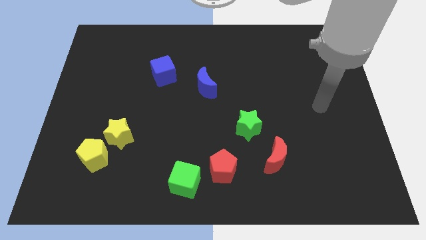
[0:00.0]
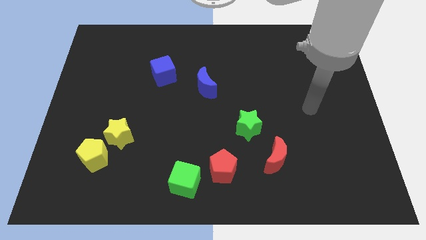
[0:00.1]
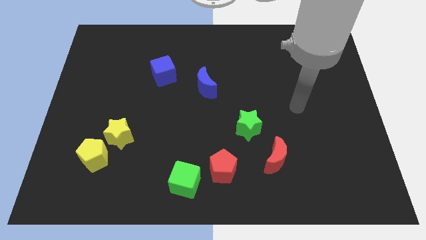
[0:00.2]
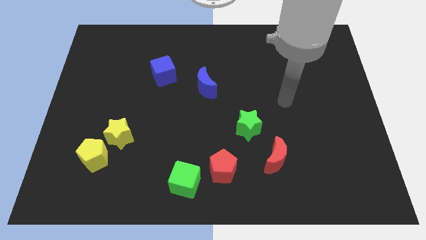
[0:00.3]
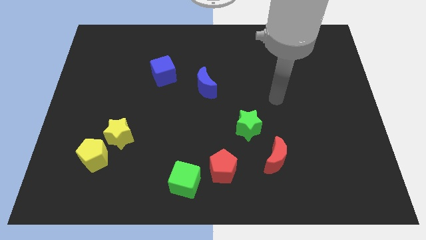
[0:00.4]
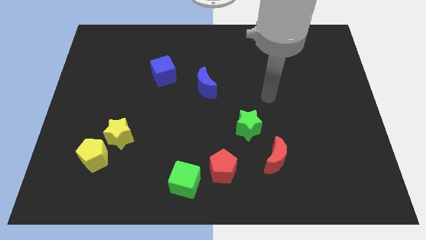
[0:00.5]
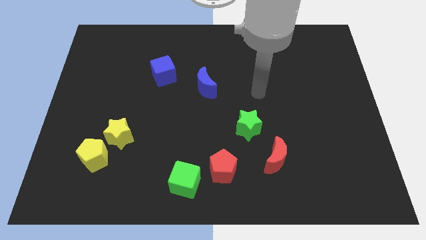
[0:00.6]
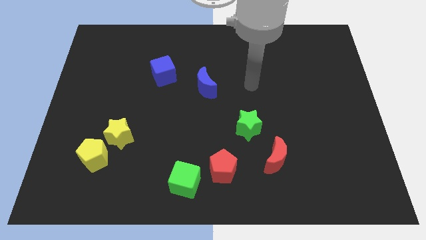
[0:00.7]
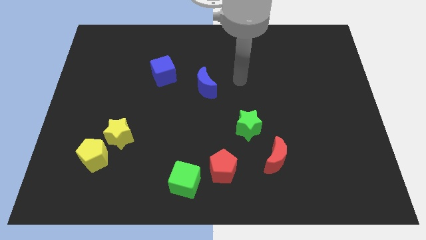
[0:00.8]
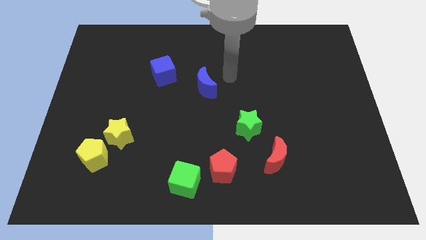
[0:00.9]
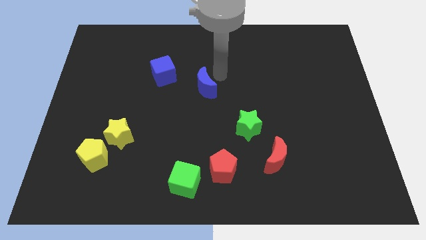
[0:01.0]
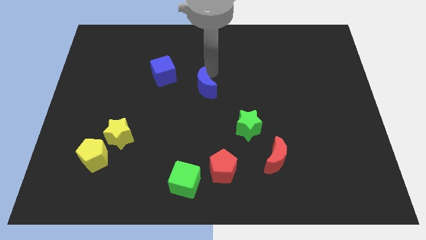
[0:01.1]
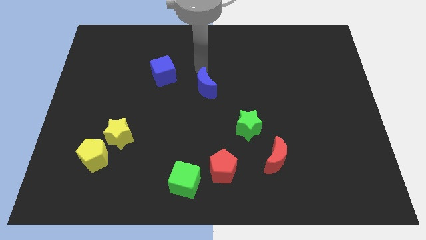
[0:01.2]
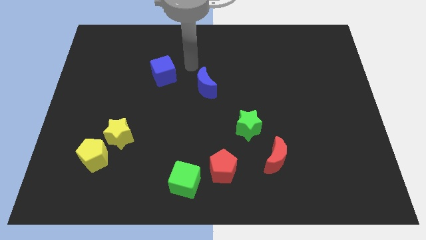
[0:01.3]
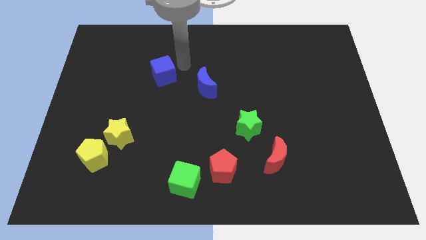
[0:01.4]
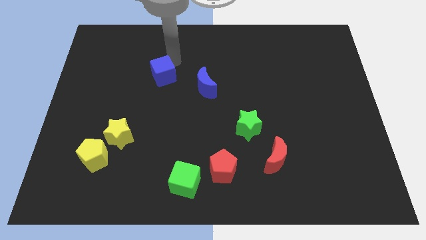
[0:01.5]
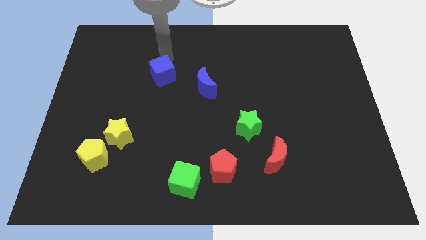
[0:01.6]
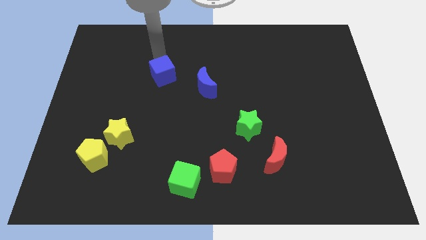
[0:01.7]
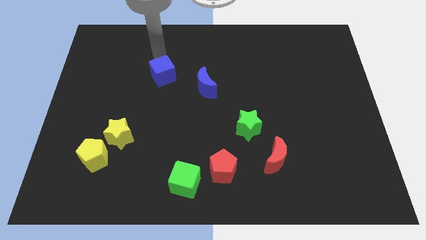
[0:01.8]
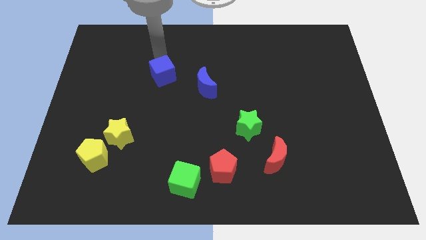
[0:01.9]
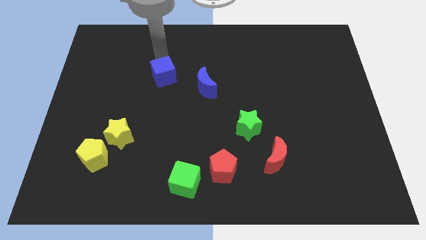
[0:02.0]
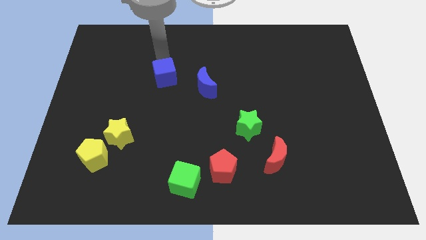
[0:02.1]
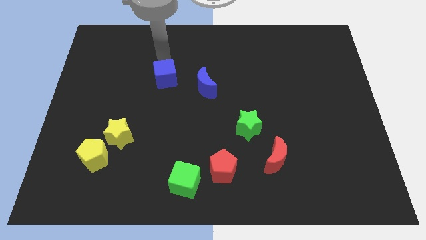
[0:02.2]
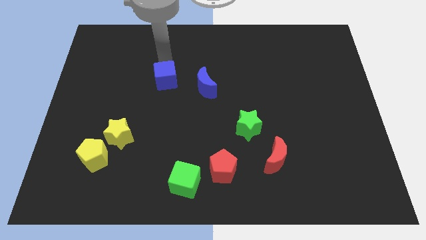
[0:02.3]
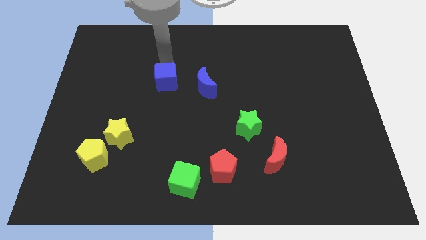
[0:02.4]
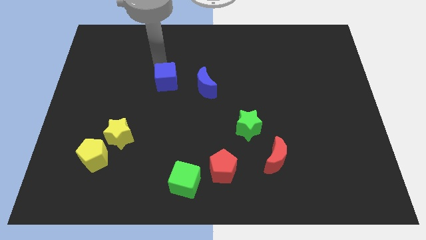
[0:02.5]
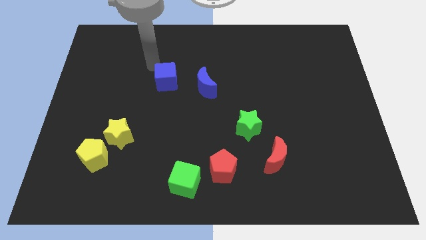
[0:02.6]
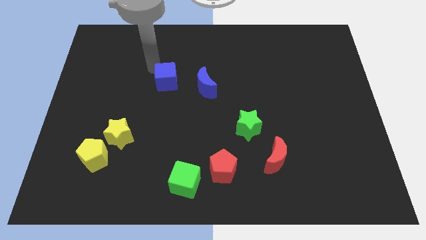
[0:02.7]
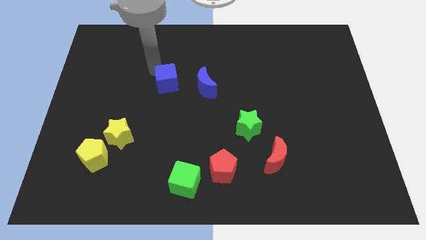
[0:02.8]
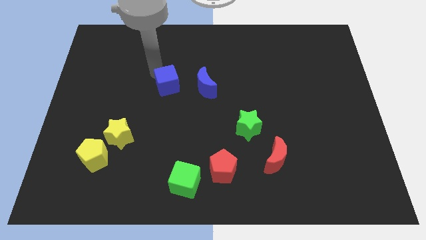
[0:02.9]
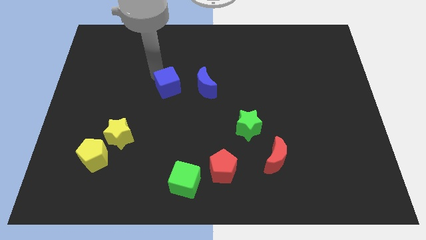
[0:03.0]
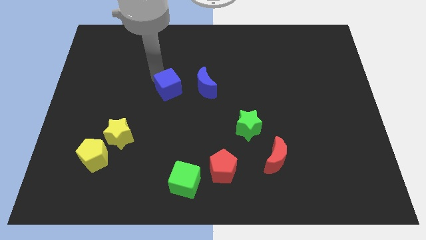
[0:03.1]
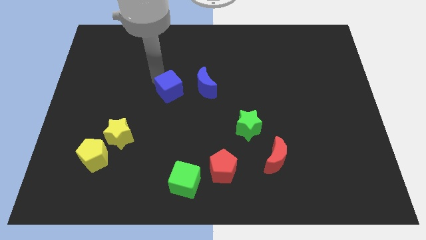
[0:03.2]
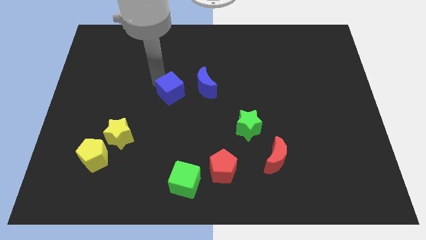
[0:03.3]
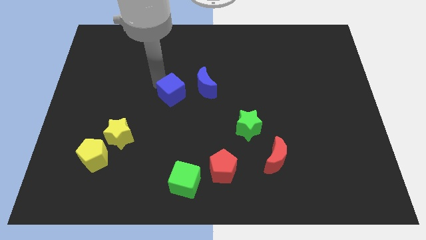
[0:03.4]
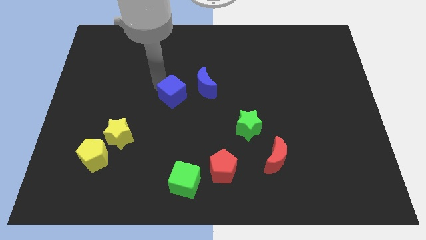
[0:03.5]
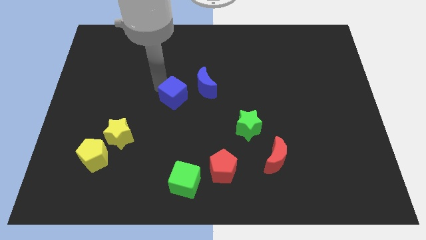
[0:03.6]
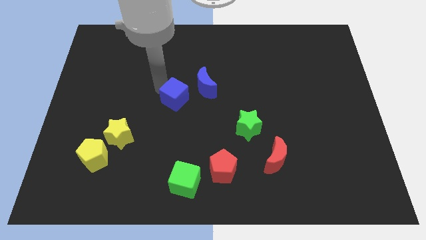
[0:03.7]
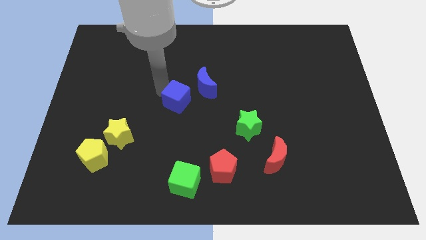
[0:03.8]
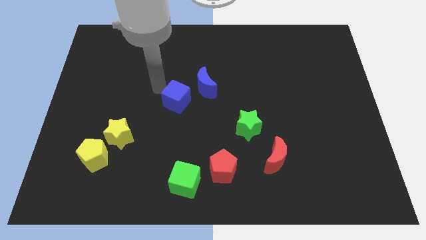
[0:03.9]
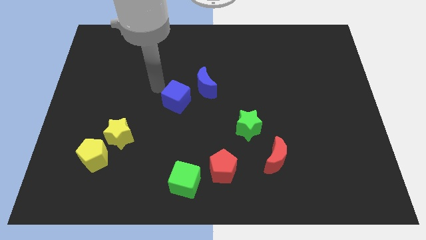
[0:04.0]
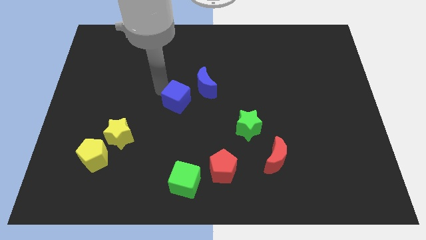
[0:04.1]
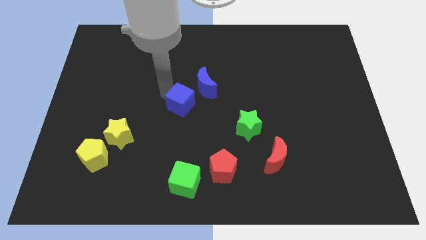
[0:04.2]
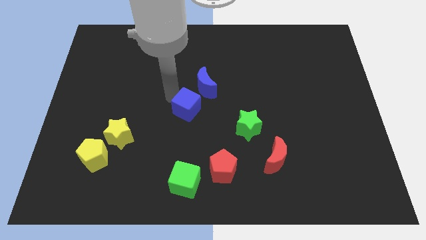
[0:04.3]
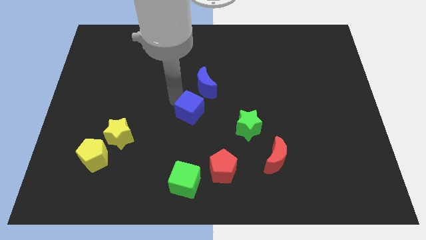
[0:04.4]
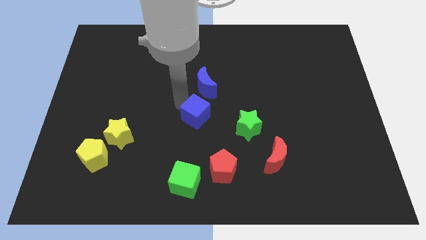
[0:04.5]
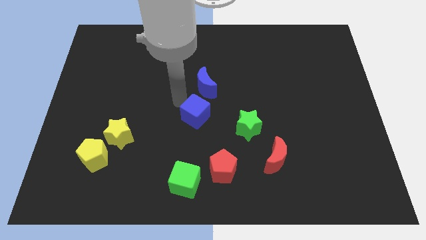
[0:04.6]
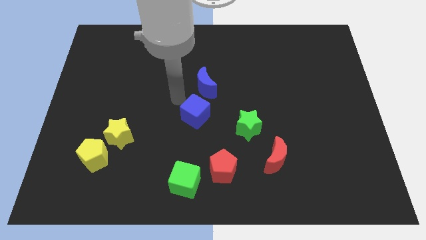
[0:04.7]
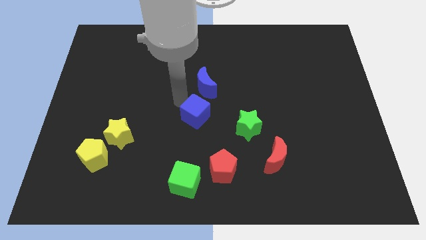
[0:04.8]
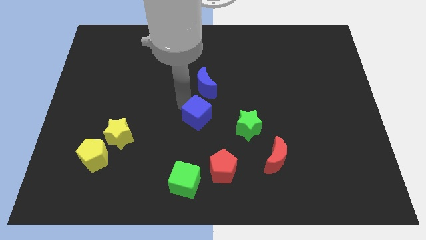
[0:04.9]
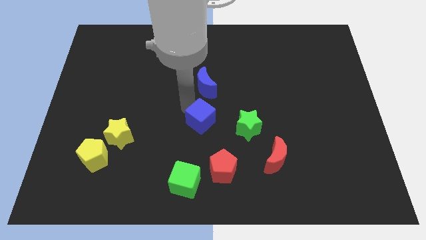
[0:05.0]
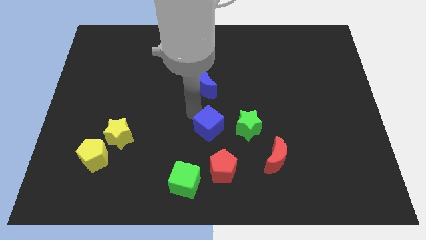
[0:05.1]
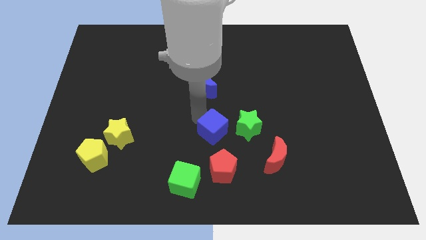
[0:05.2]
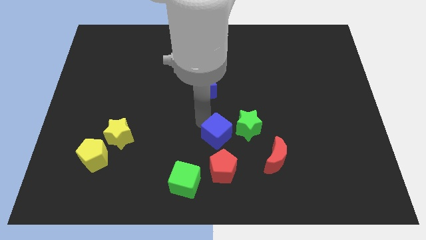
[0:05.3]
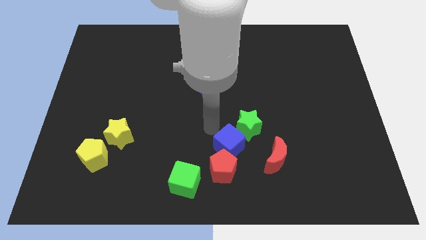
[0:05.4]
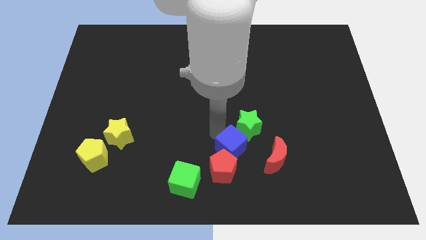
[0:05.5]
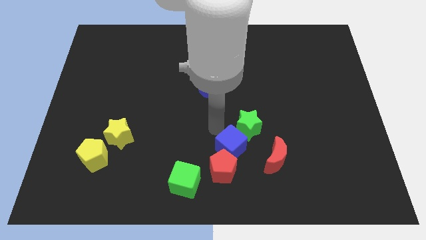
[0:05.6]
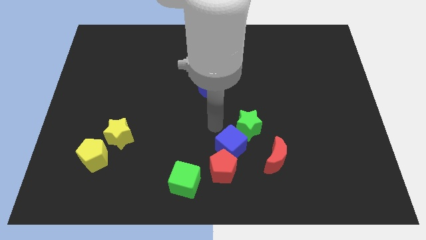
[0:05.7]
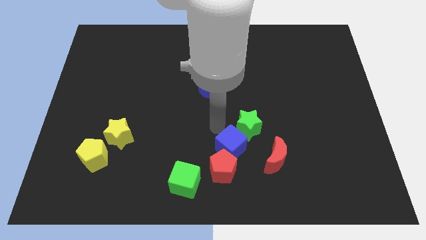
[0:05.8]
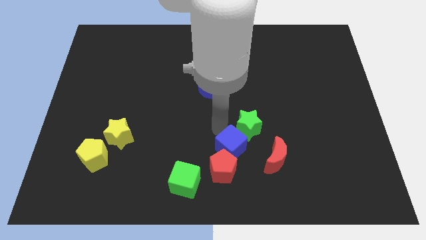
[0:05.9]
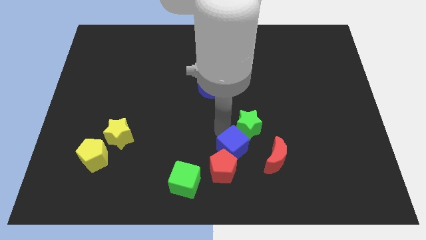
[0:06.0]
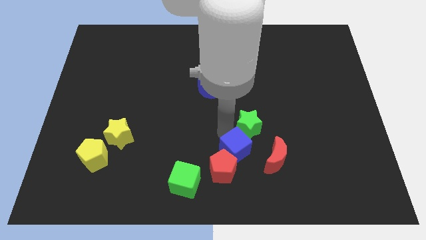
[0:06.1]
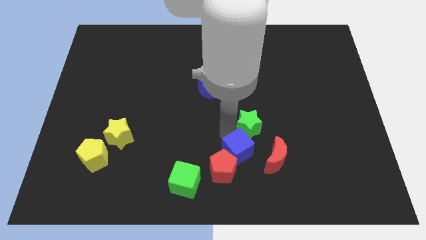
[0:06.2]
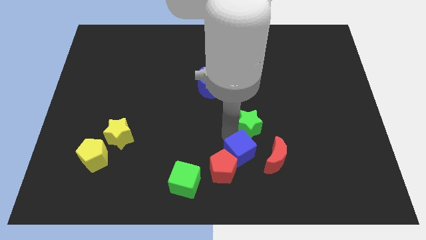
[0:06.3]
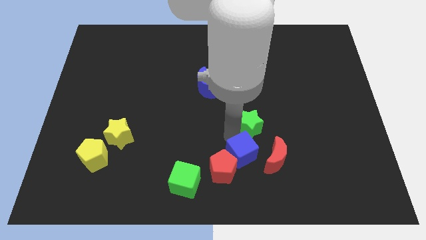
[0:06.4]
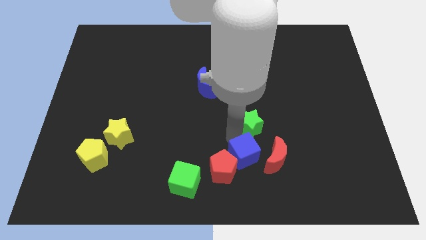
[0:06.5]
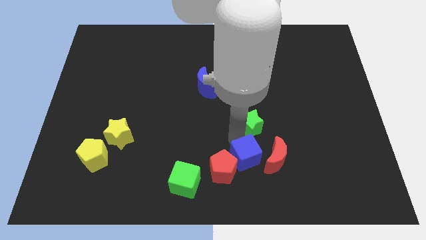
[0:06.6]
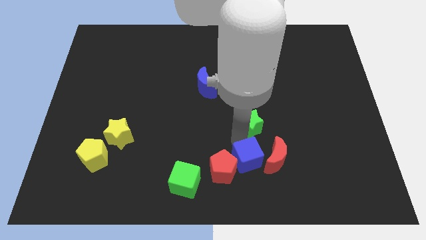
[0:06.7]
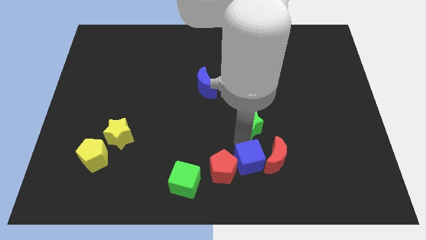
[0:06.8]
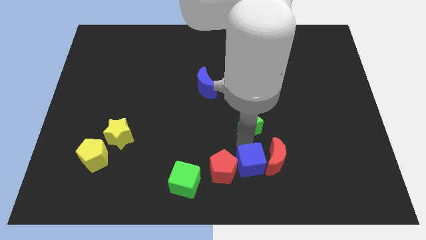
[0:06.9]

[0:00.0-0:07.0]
put the blue cube to the right of the green cube
